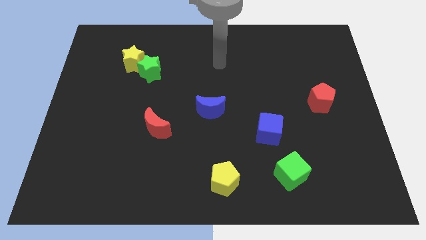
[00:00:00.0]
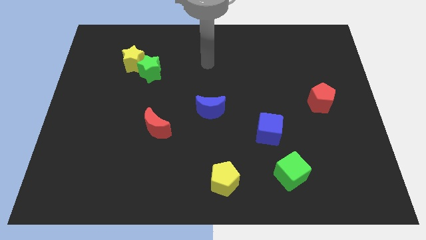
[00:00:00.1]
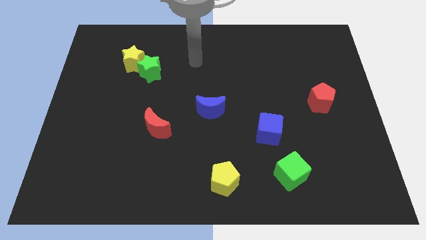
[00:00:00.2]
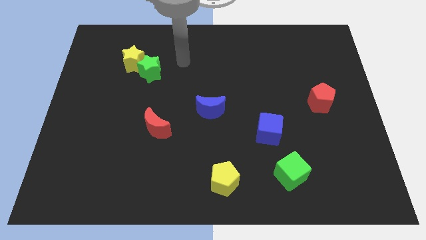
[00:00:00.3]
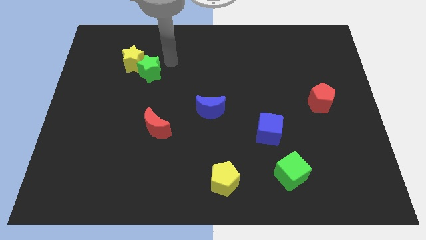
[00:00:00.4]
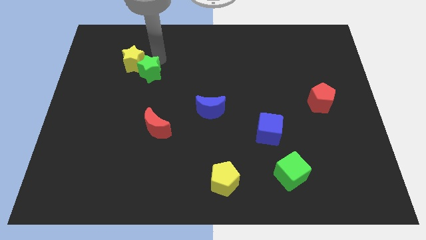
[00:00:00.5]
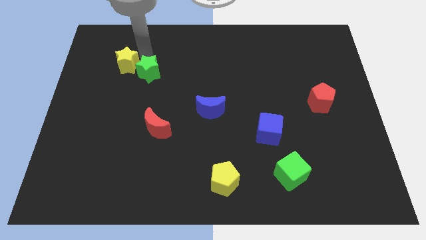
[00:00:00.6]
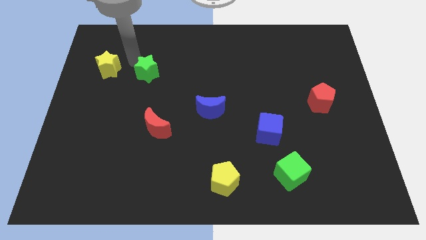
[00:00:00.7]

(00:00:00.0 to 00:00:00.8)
pull the green star apart from the yellow star

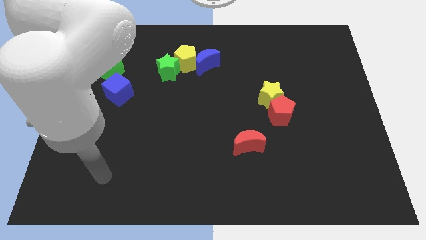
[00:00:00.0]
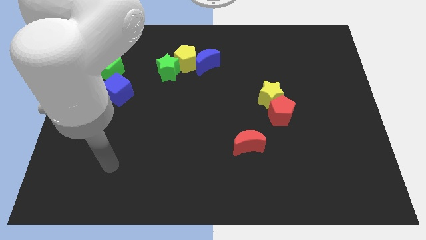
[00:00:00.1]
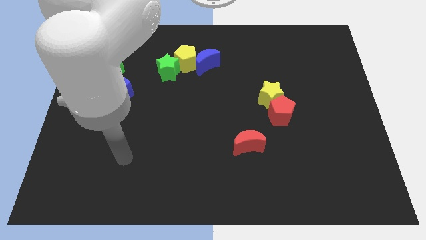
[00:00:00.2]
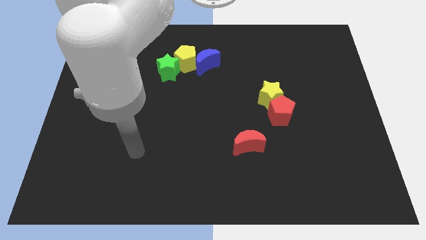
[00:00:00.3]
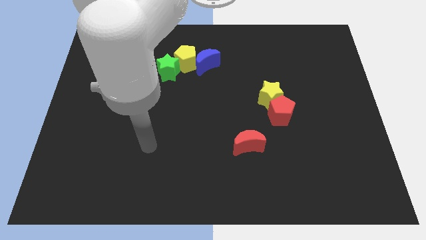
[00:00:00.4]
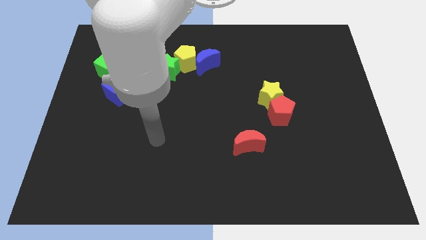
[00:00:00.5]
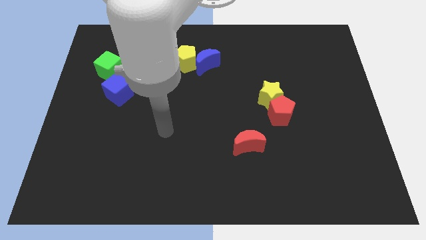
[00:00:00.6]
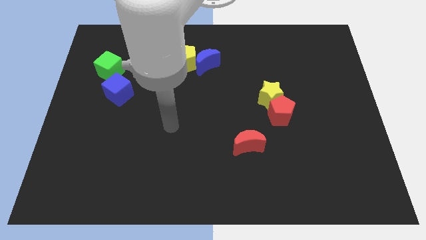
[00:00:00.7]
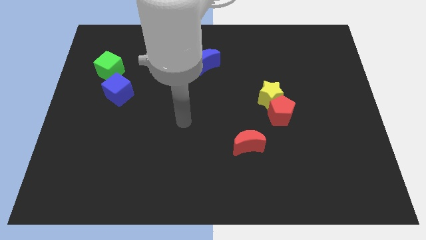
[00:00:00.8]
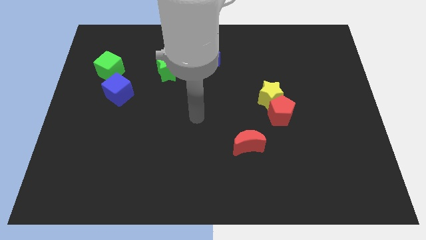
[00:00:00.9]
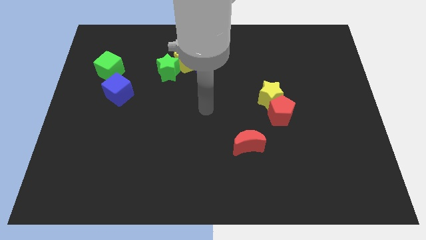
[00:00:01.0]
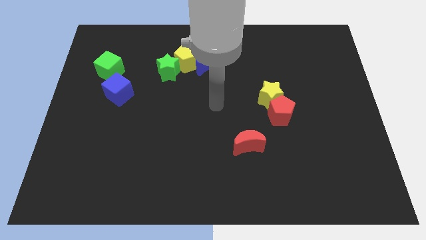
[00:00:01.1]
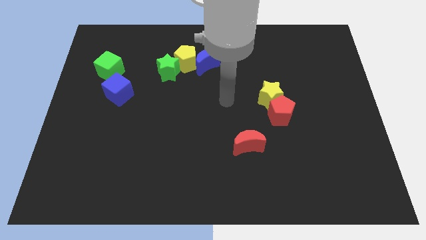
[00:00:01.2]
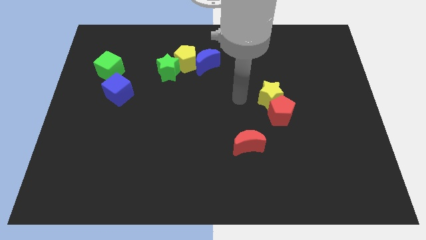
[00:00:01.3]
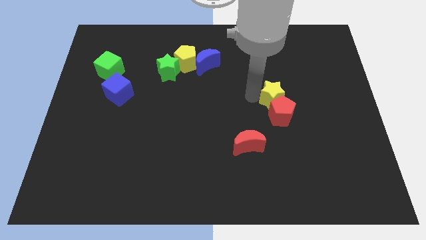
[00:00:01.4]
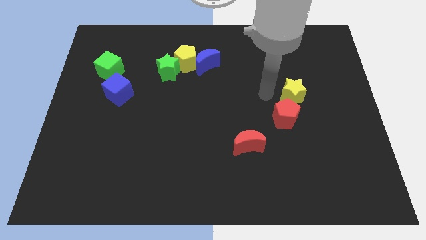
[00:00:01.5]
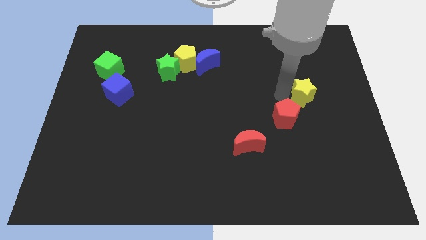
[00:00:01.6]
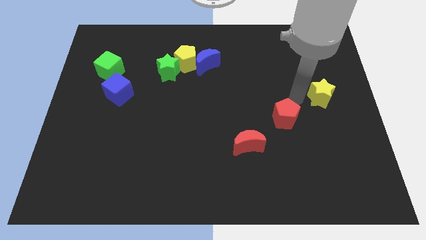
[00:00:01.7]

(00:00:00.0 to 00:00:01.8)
move the red pentagon away from the yellow star

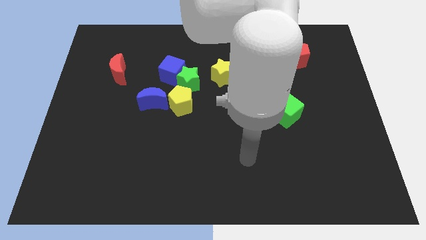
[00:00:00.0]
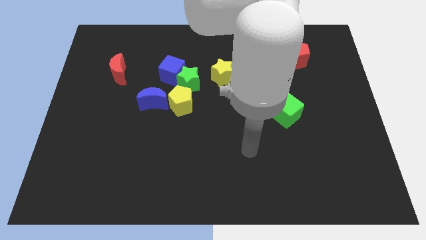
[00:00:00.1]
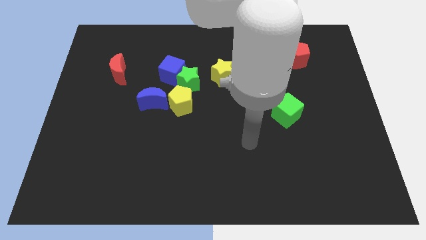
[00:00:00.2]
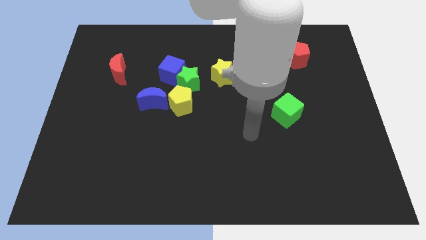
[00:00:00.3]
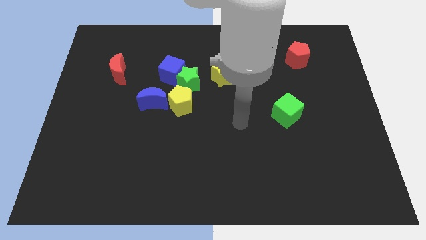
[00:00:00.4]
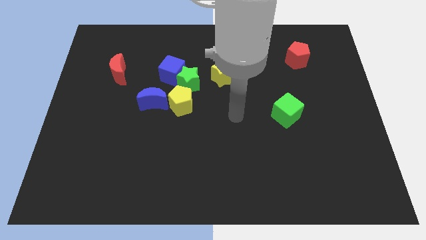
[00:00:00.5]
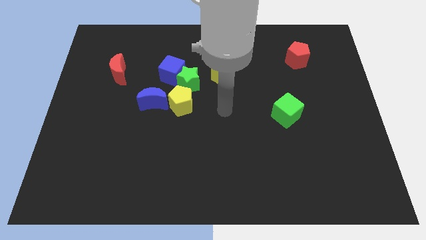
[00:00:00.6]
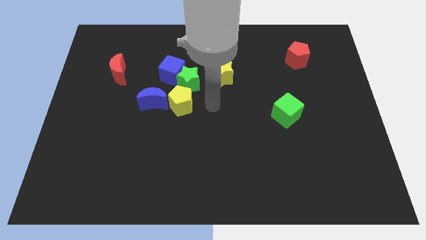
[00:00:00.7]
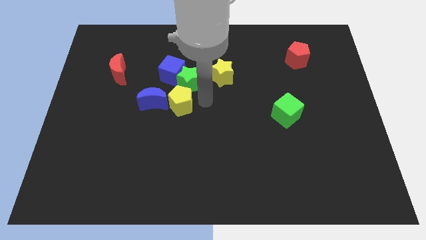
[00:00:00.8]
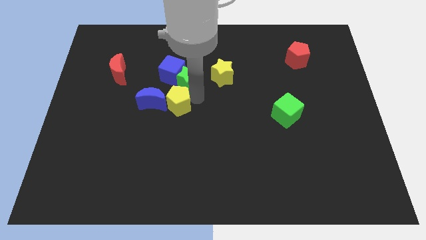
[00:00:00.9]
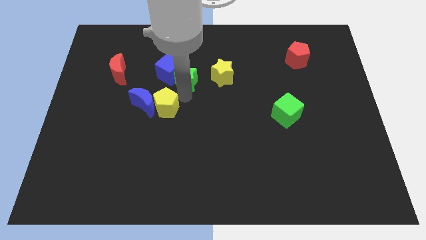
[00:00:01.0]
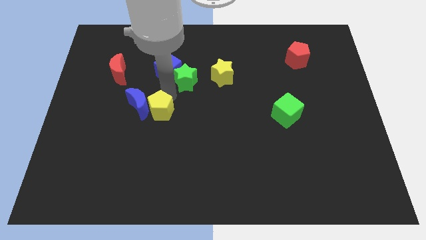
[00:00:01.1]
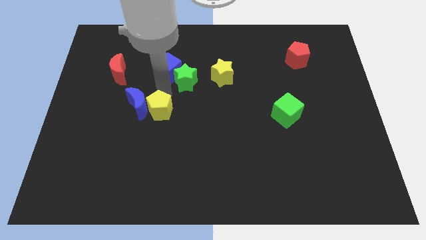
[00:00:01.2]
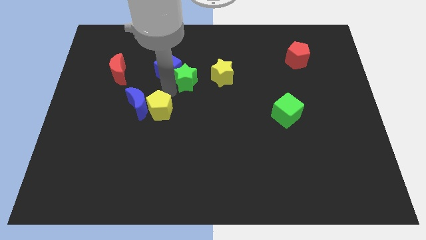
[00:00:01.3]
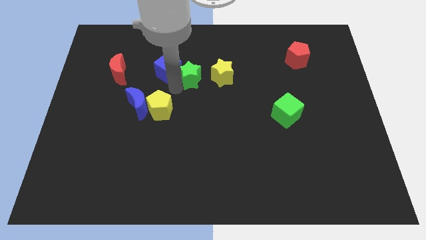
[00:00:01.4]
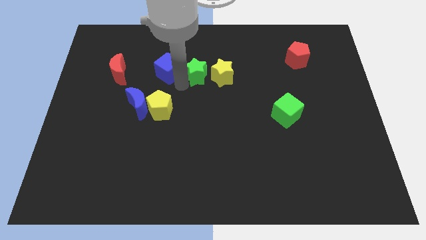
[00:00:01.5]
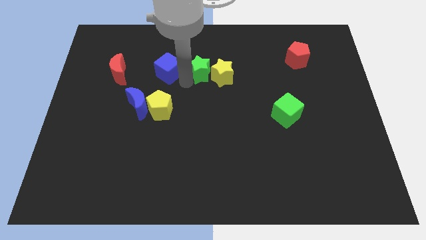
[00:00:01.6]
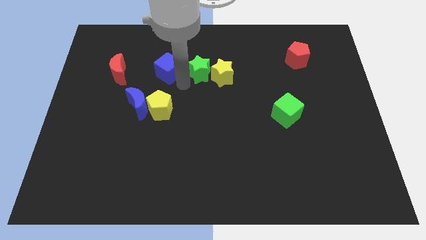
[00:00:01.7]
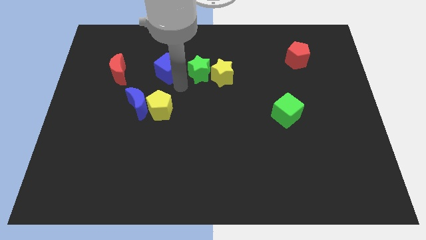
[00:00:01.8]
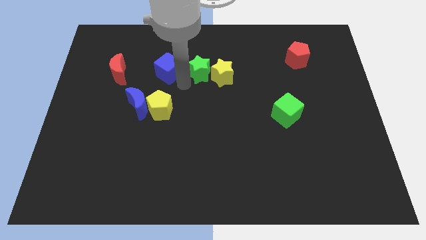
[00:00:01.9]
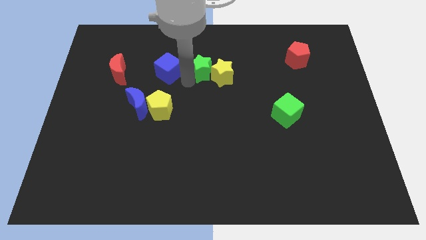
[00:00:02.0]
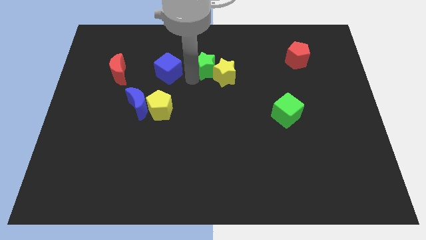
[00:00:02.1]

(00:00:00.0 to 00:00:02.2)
move the green star away from the clump

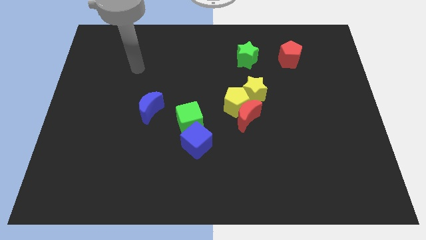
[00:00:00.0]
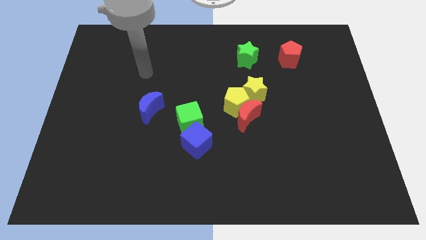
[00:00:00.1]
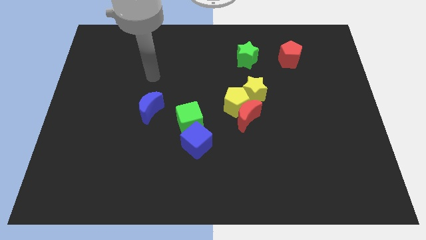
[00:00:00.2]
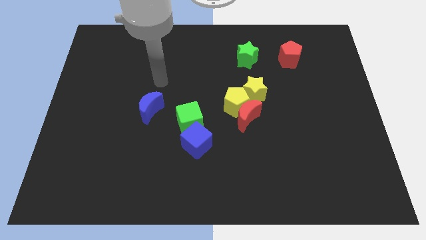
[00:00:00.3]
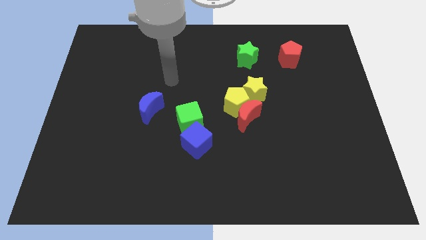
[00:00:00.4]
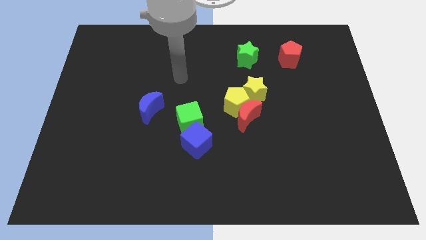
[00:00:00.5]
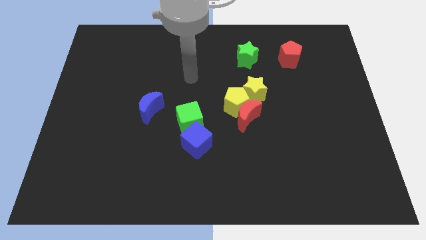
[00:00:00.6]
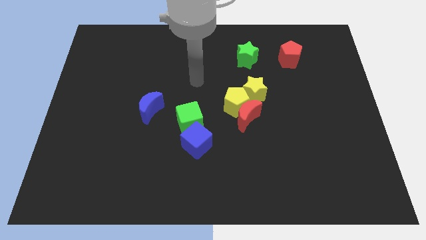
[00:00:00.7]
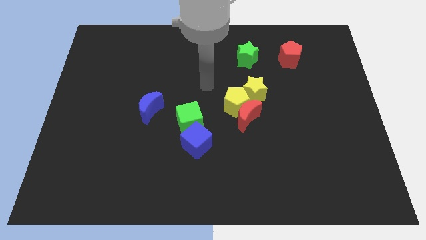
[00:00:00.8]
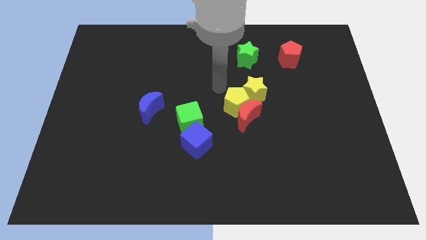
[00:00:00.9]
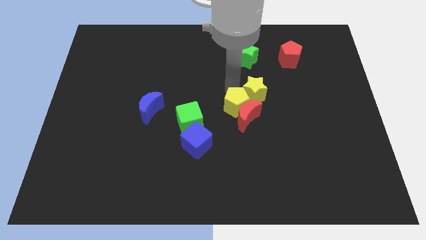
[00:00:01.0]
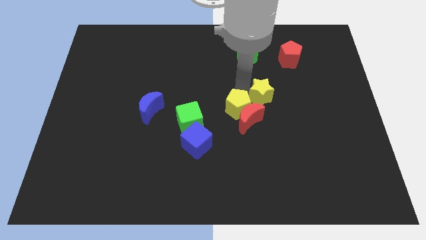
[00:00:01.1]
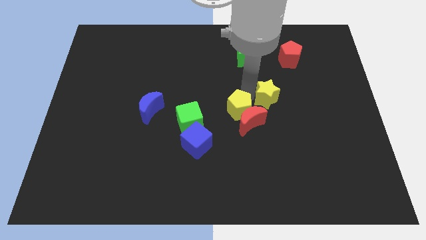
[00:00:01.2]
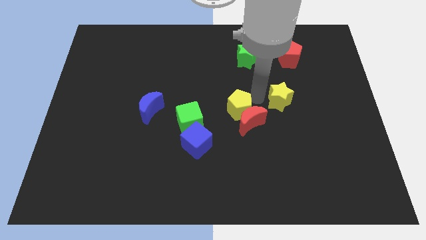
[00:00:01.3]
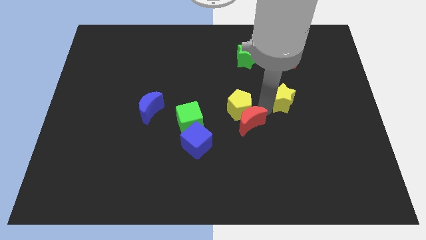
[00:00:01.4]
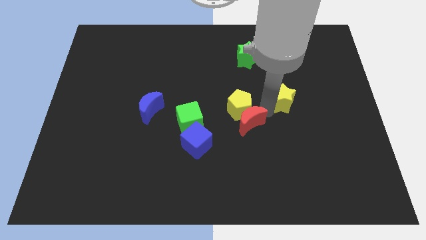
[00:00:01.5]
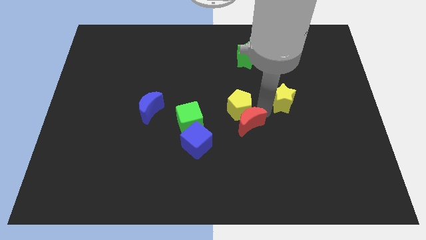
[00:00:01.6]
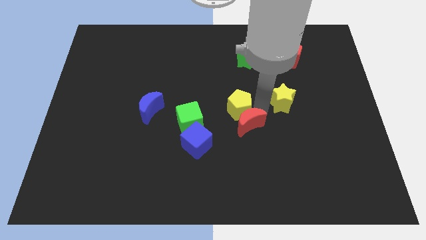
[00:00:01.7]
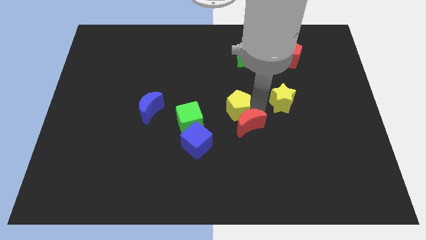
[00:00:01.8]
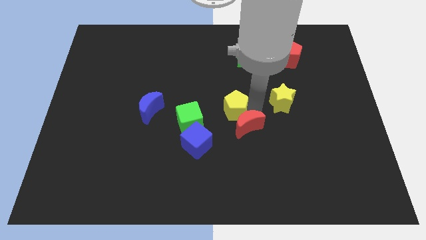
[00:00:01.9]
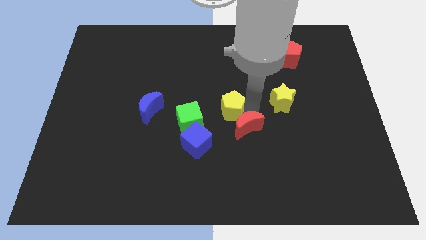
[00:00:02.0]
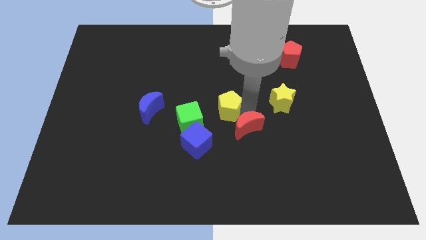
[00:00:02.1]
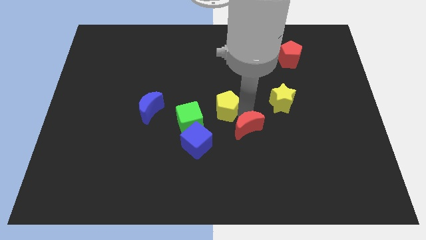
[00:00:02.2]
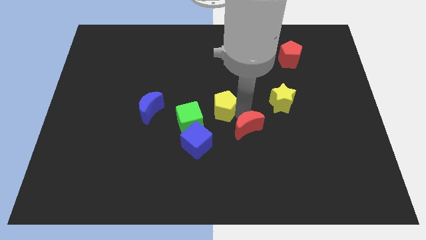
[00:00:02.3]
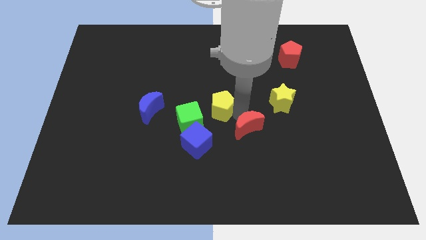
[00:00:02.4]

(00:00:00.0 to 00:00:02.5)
pull the yellow pentagon apart from the red moon and yellow star

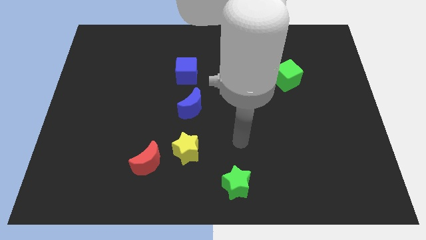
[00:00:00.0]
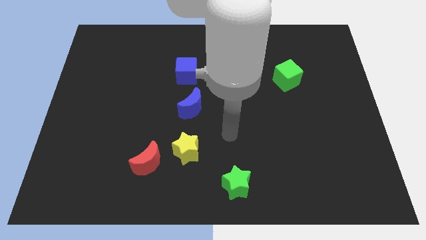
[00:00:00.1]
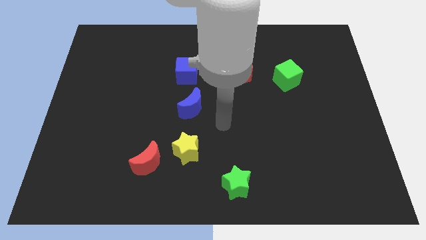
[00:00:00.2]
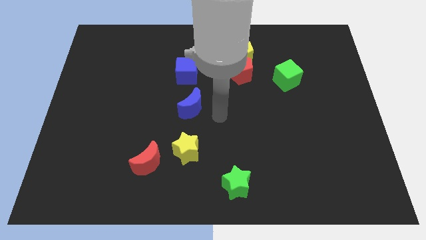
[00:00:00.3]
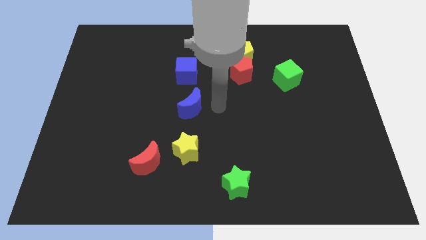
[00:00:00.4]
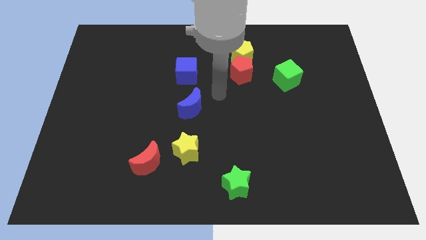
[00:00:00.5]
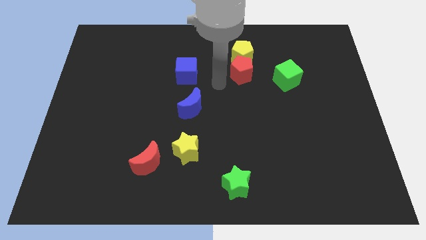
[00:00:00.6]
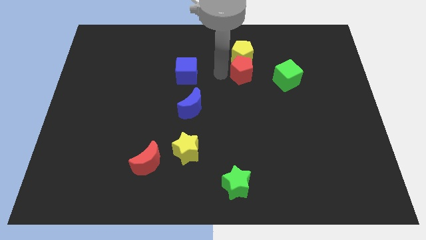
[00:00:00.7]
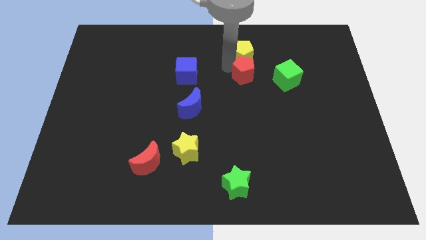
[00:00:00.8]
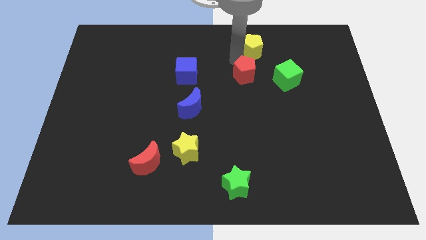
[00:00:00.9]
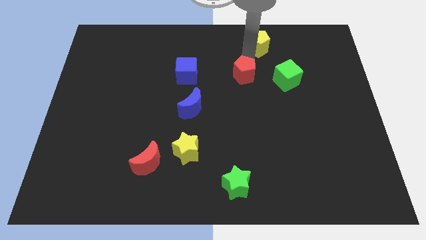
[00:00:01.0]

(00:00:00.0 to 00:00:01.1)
pull the red pentagon apart from the yellow pentagon

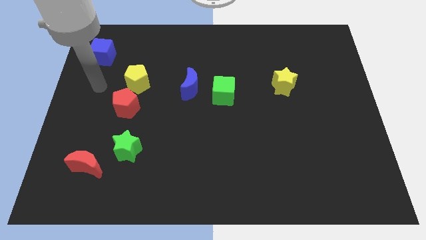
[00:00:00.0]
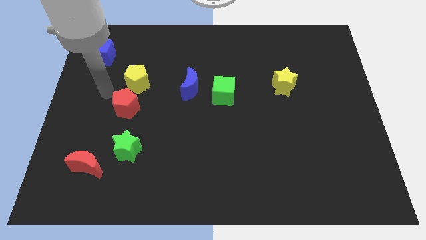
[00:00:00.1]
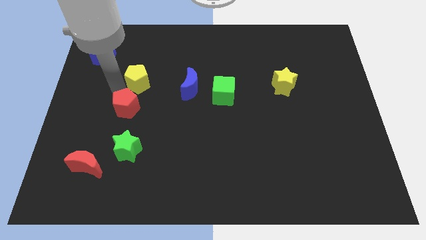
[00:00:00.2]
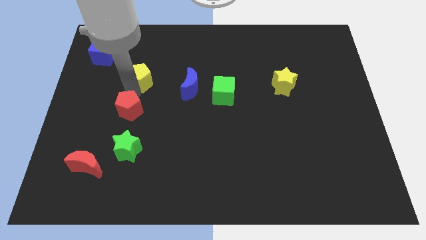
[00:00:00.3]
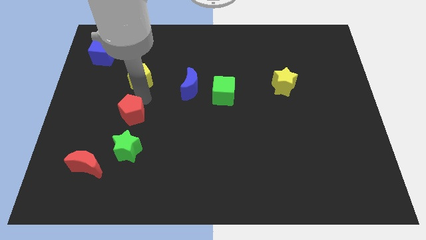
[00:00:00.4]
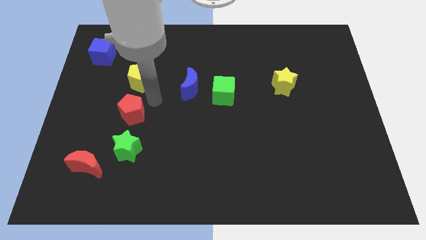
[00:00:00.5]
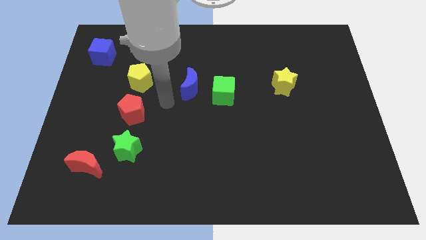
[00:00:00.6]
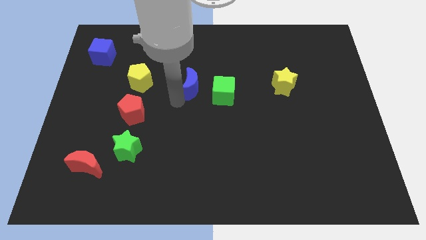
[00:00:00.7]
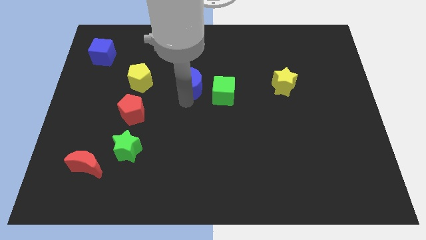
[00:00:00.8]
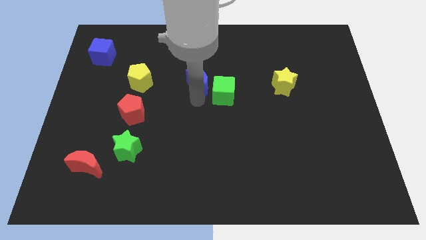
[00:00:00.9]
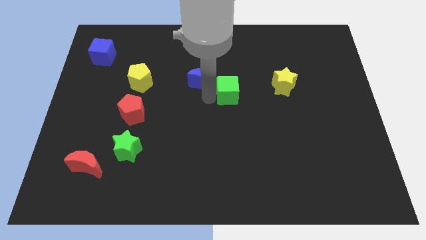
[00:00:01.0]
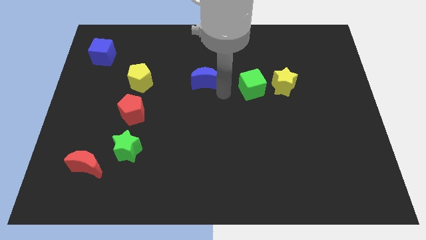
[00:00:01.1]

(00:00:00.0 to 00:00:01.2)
move the blue moon away from the green cube
